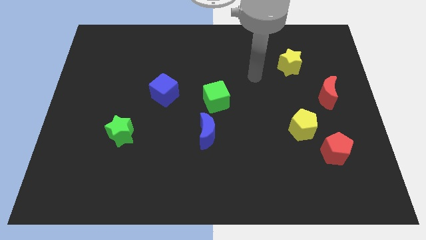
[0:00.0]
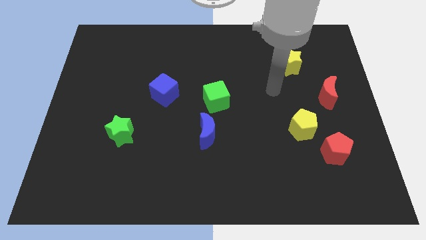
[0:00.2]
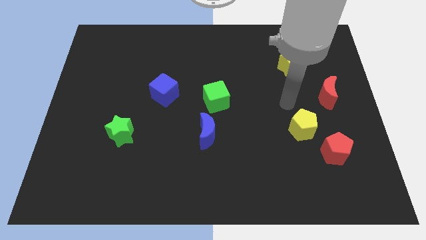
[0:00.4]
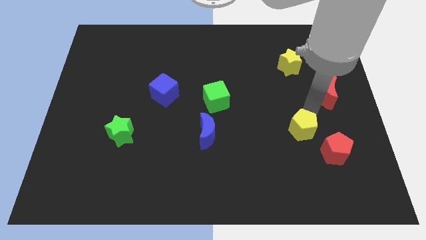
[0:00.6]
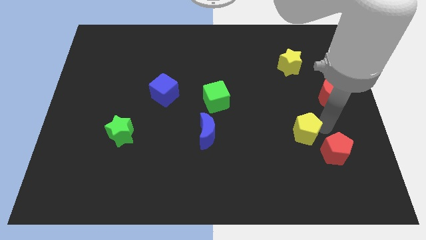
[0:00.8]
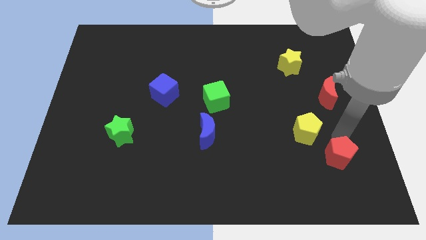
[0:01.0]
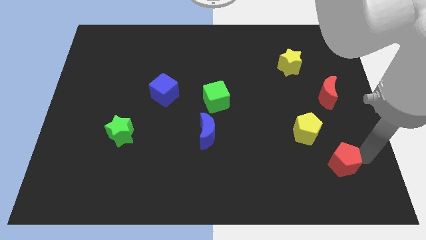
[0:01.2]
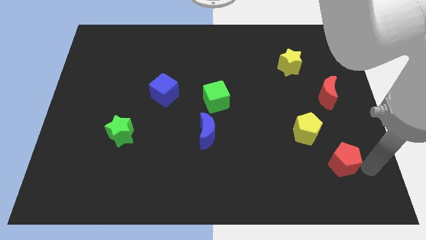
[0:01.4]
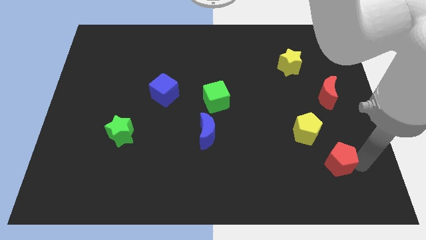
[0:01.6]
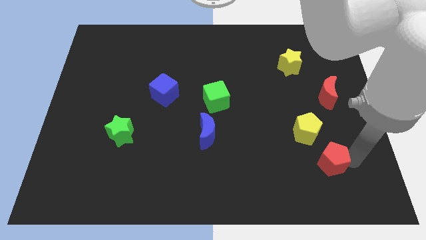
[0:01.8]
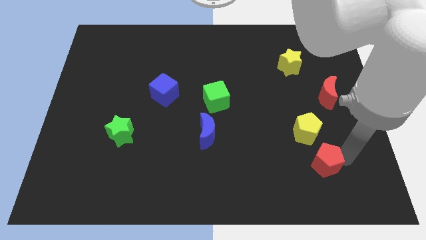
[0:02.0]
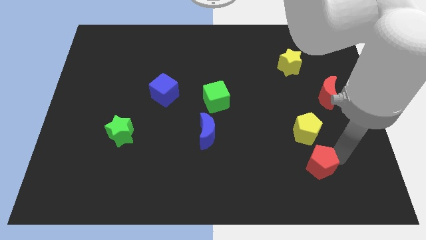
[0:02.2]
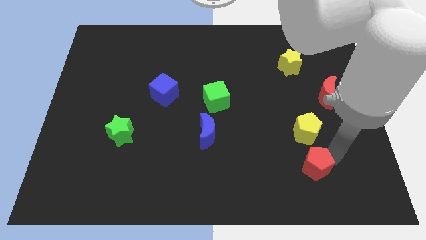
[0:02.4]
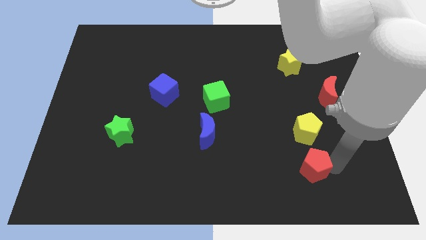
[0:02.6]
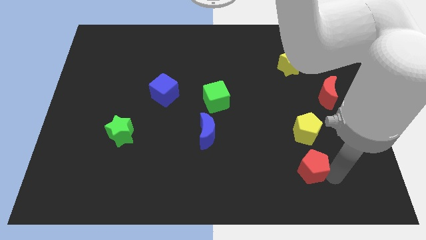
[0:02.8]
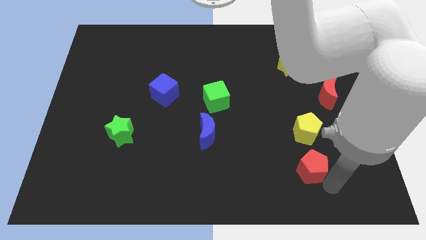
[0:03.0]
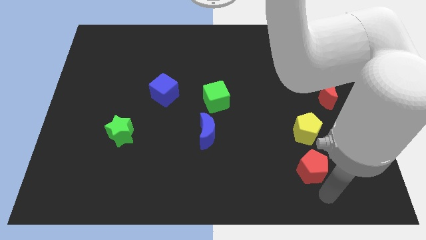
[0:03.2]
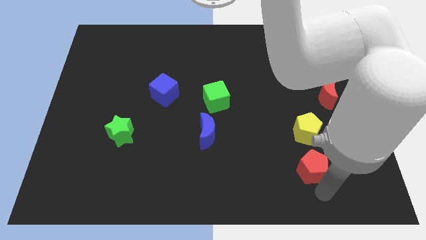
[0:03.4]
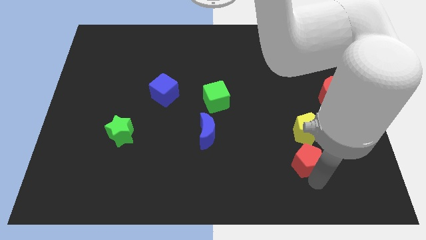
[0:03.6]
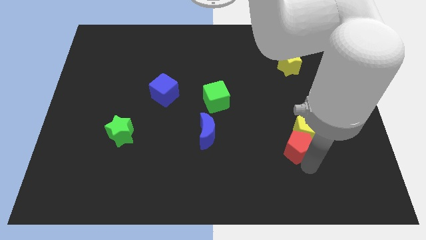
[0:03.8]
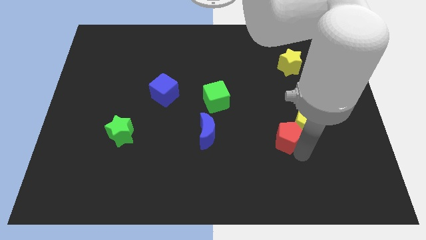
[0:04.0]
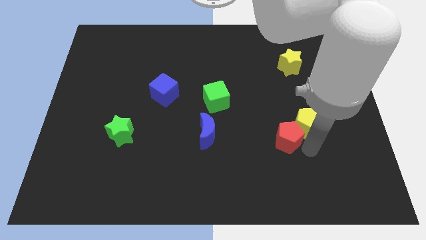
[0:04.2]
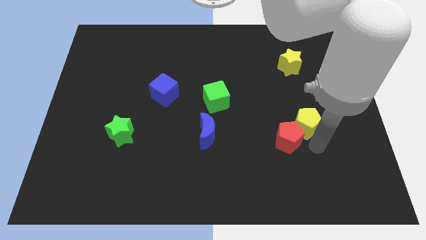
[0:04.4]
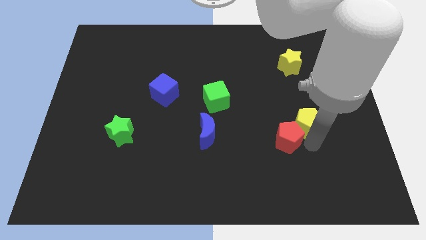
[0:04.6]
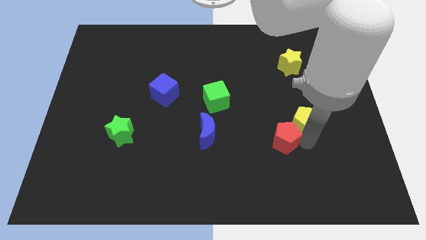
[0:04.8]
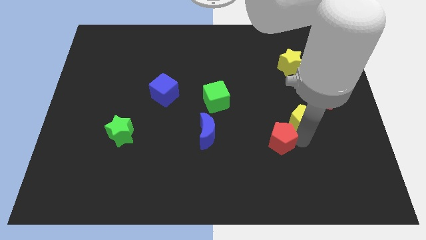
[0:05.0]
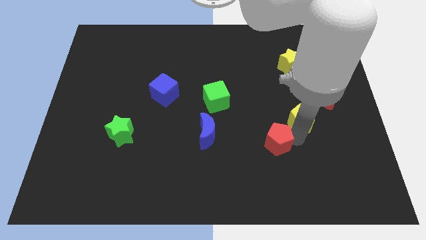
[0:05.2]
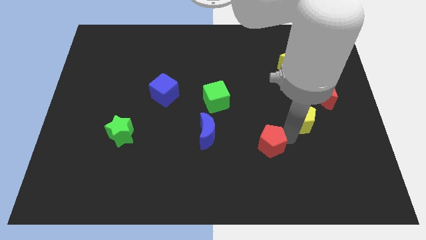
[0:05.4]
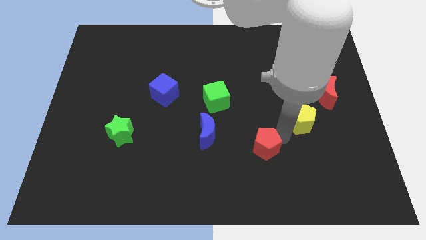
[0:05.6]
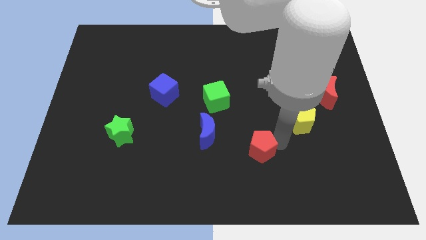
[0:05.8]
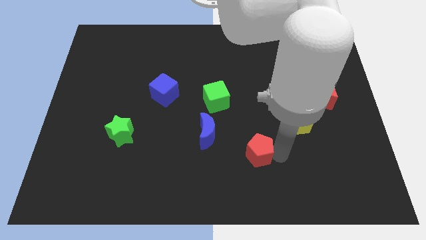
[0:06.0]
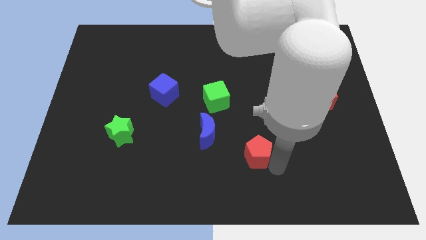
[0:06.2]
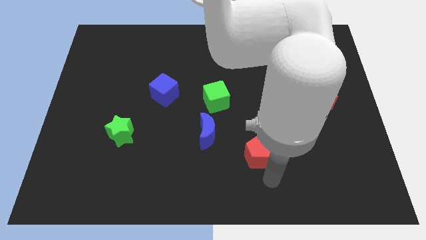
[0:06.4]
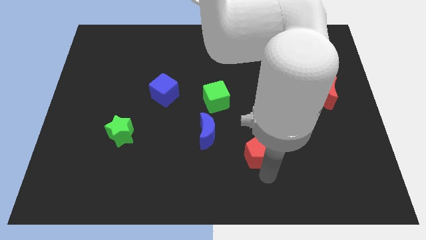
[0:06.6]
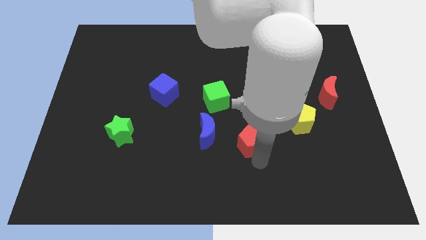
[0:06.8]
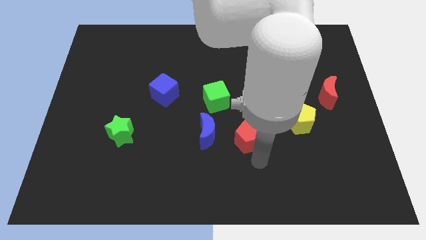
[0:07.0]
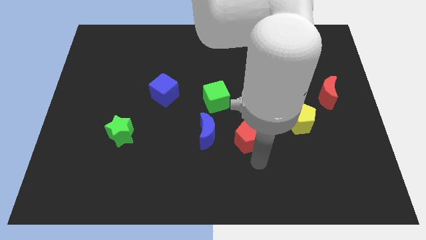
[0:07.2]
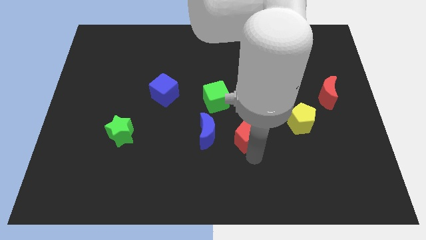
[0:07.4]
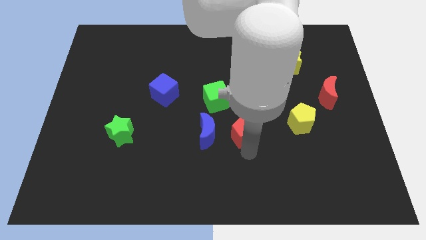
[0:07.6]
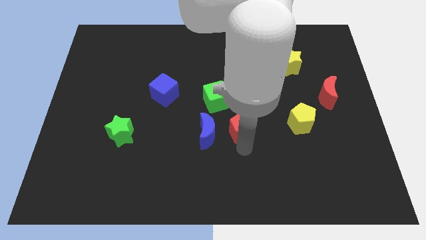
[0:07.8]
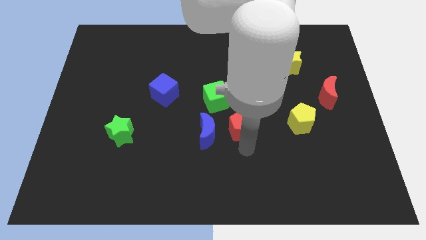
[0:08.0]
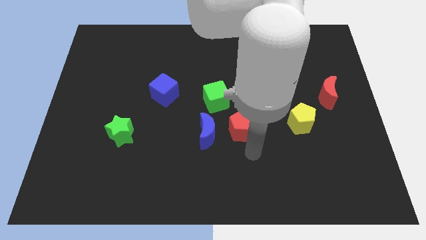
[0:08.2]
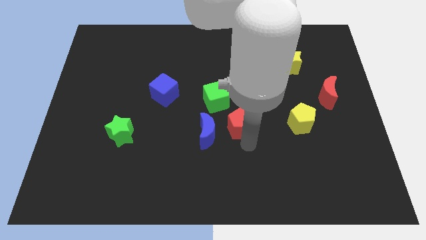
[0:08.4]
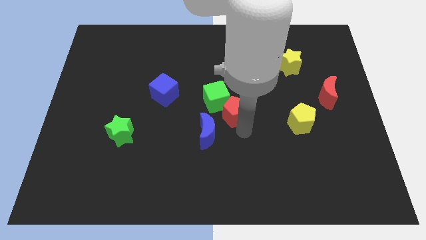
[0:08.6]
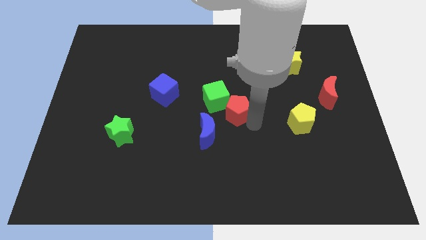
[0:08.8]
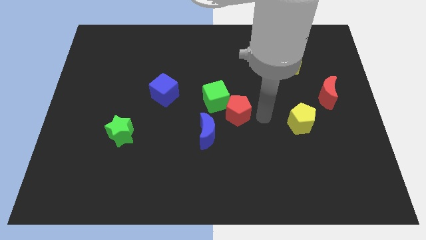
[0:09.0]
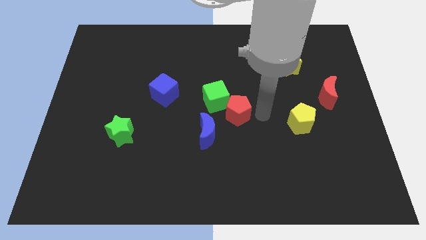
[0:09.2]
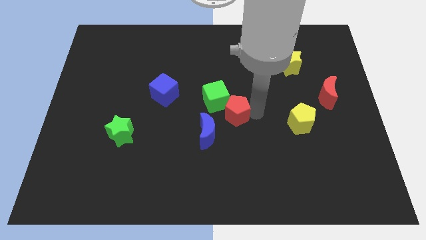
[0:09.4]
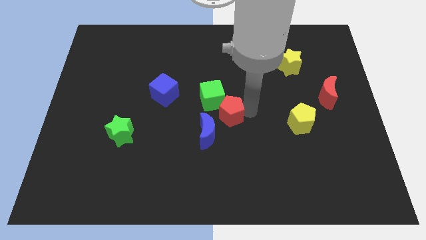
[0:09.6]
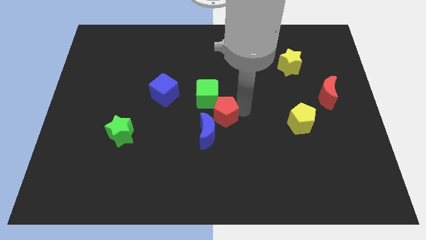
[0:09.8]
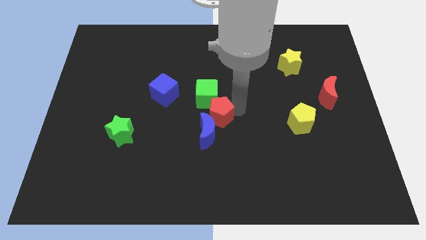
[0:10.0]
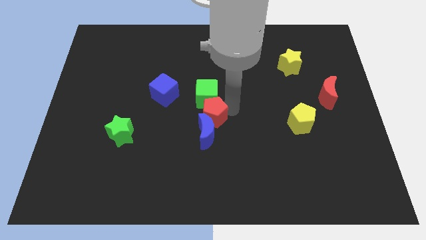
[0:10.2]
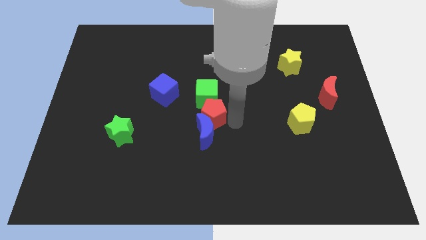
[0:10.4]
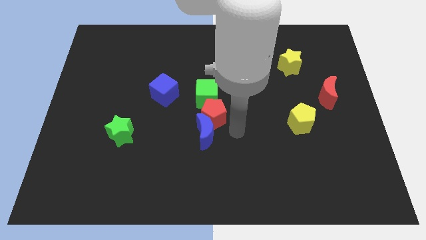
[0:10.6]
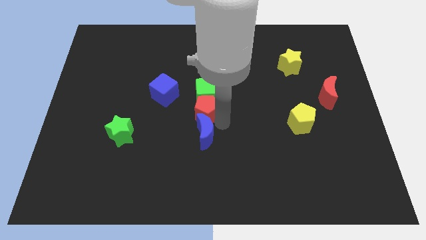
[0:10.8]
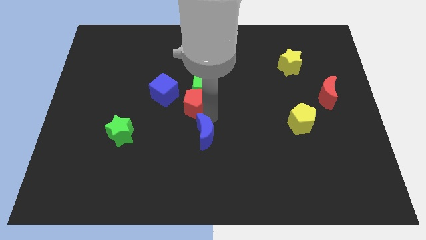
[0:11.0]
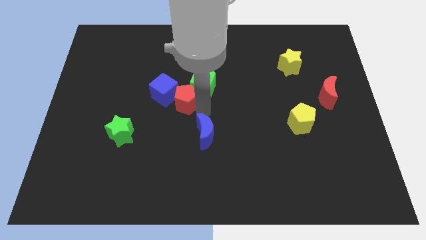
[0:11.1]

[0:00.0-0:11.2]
put the red pentagon next to the blue cube

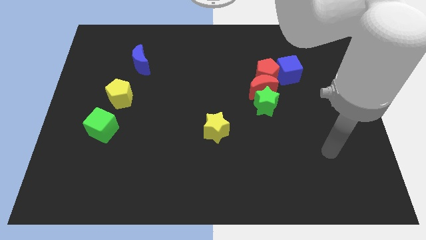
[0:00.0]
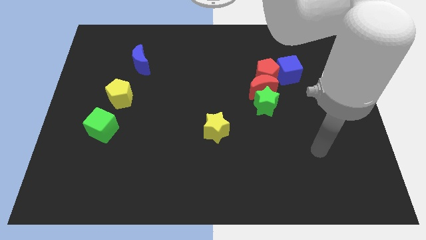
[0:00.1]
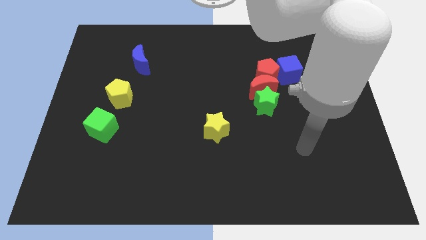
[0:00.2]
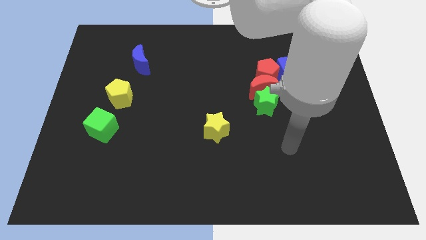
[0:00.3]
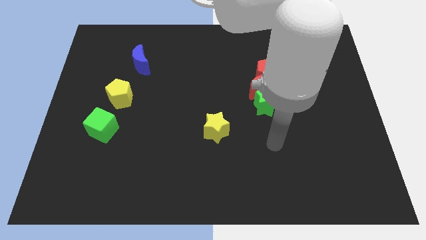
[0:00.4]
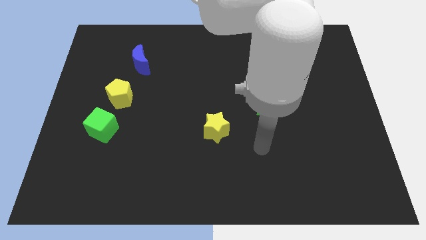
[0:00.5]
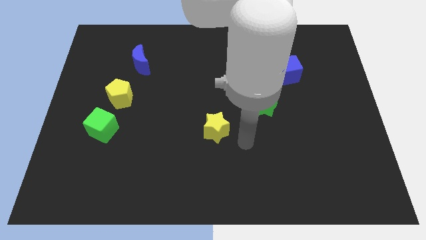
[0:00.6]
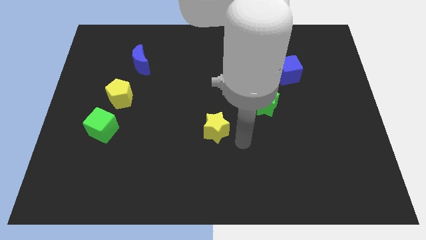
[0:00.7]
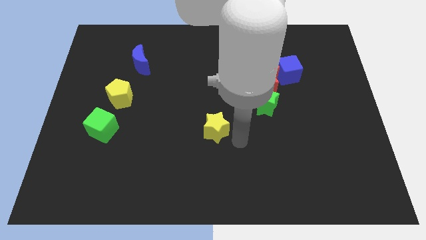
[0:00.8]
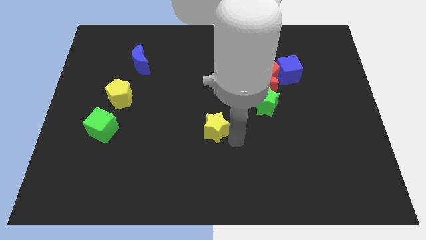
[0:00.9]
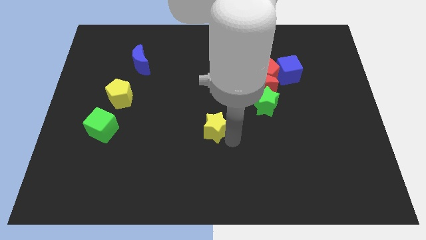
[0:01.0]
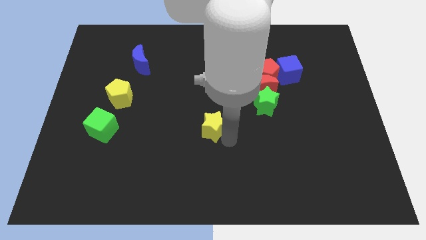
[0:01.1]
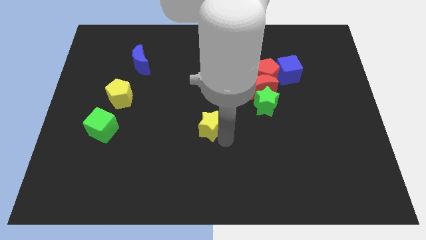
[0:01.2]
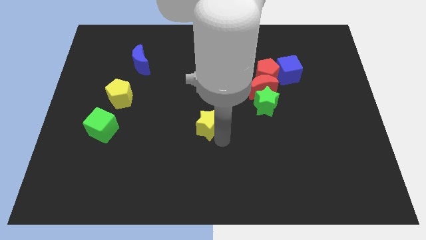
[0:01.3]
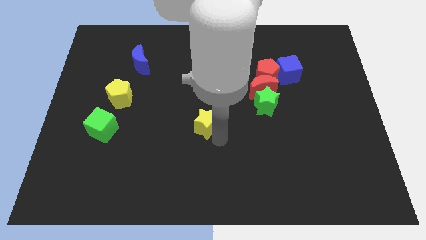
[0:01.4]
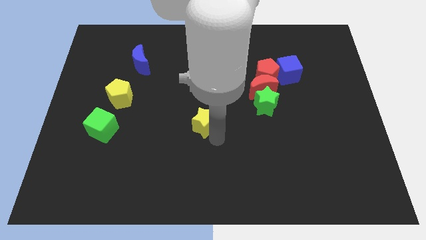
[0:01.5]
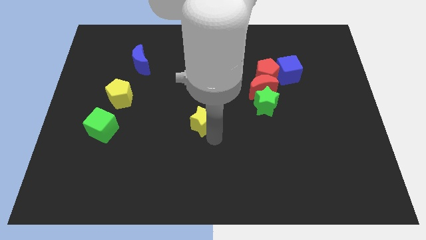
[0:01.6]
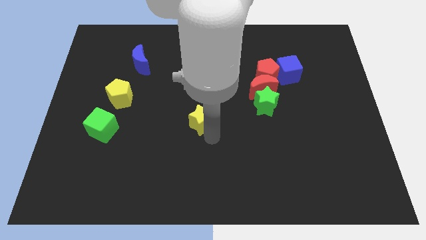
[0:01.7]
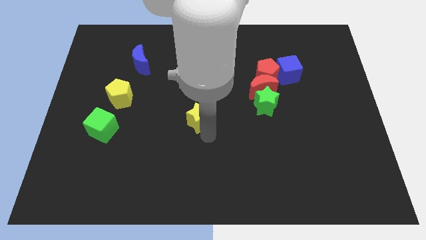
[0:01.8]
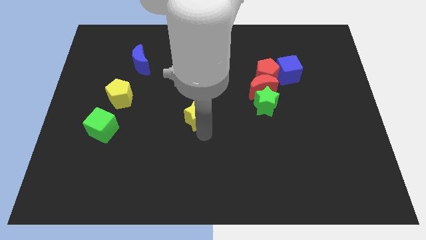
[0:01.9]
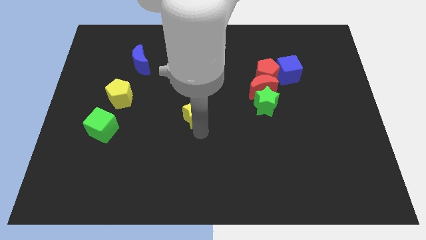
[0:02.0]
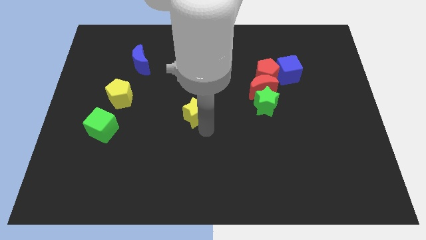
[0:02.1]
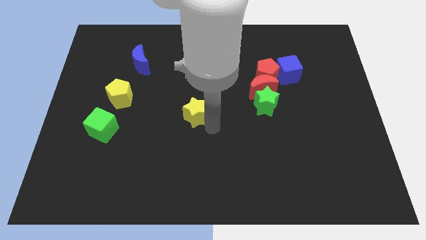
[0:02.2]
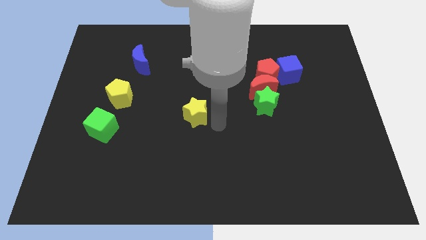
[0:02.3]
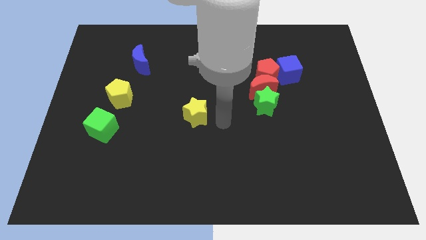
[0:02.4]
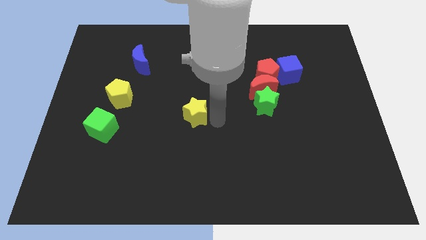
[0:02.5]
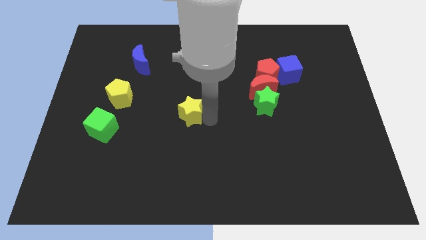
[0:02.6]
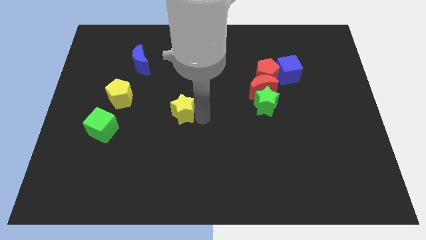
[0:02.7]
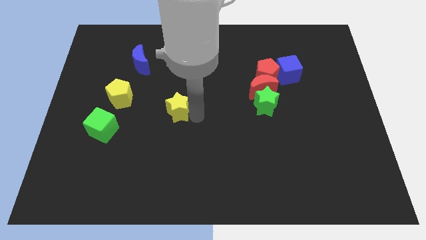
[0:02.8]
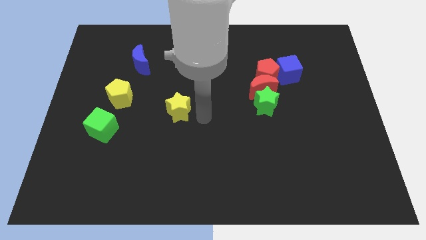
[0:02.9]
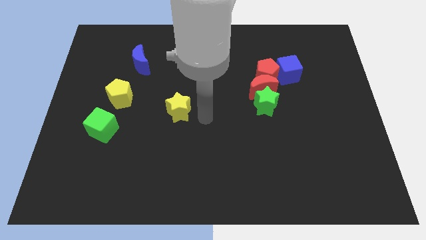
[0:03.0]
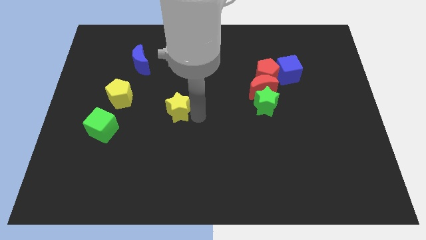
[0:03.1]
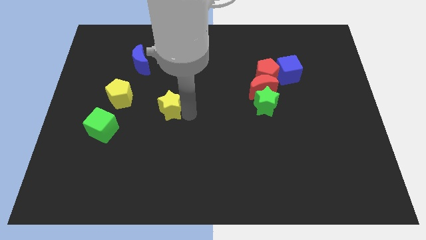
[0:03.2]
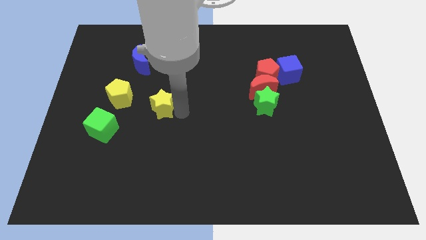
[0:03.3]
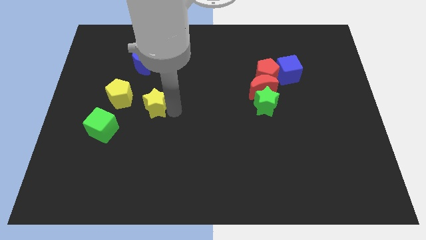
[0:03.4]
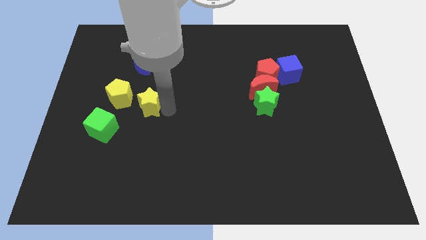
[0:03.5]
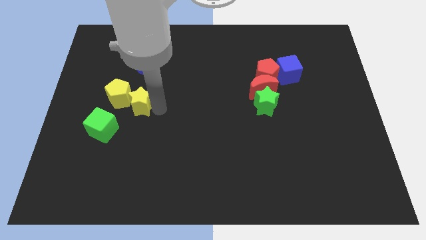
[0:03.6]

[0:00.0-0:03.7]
slide the yellow star towards the yellow pentagon
